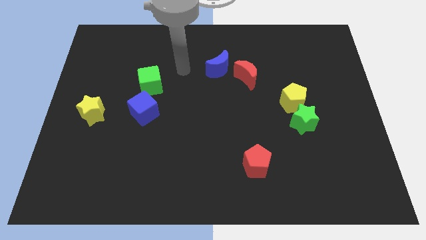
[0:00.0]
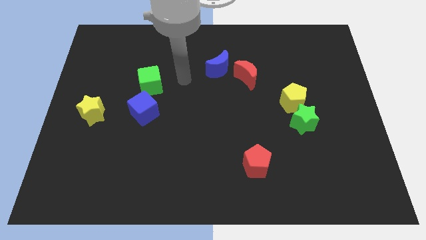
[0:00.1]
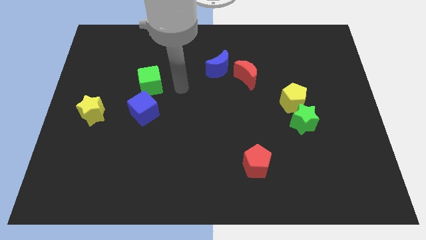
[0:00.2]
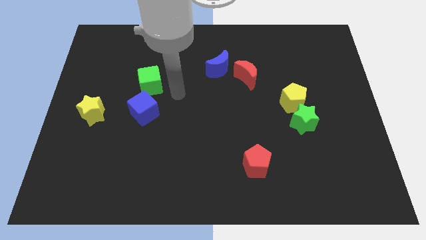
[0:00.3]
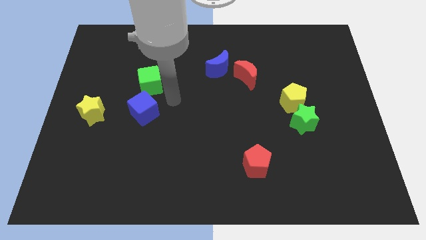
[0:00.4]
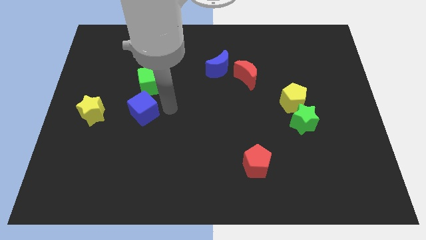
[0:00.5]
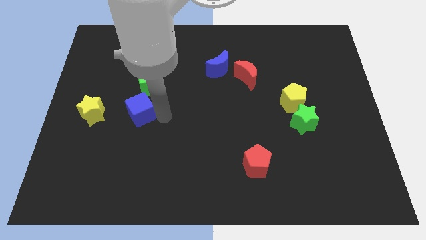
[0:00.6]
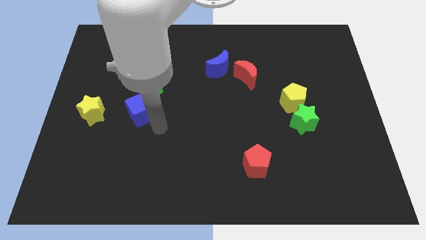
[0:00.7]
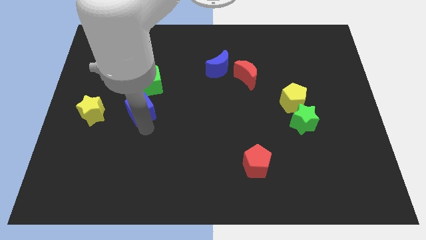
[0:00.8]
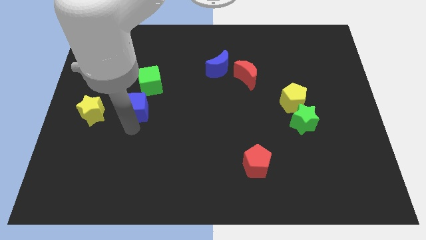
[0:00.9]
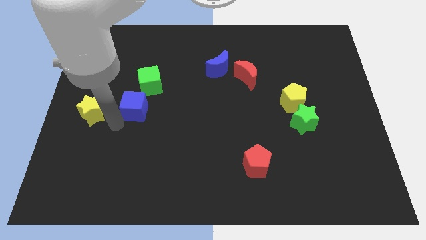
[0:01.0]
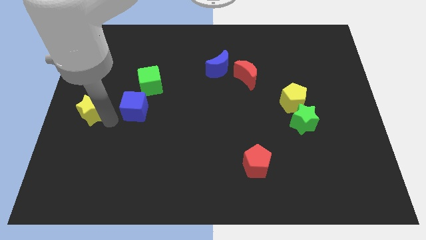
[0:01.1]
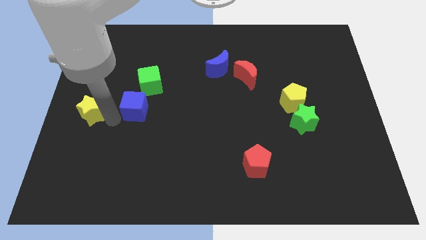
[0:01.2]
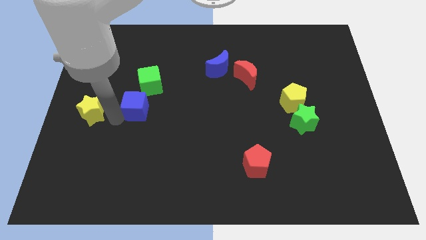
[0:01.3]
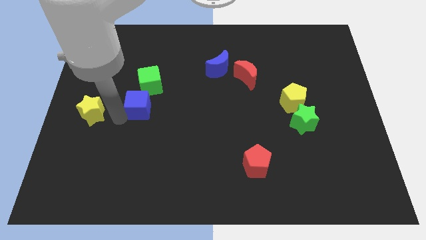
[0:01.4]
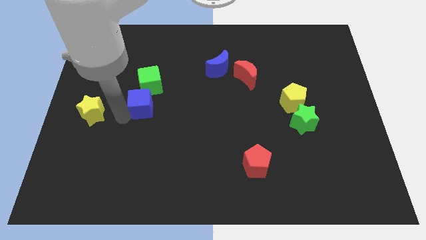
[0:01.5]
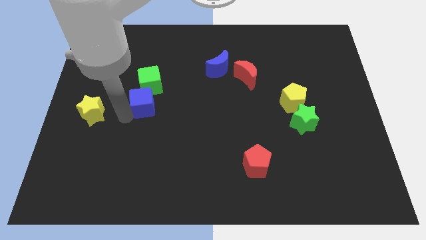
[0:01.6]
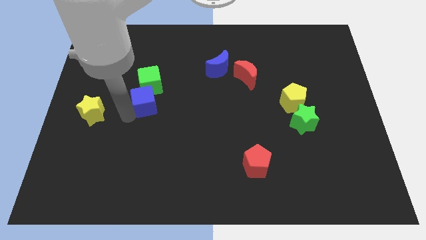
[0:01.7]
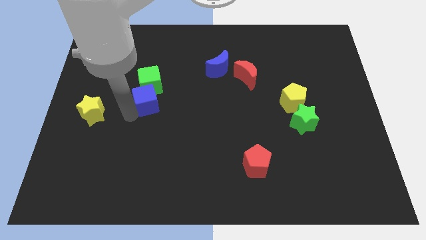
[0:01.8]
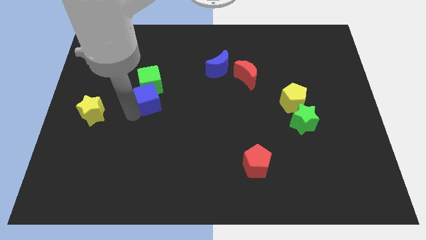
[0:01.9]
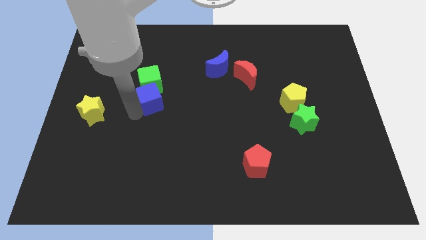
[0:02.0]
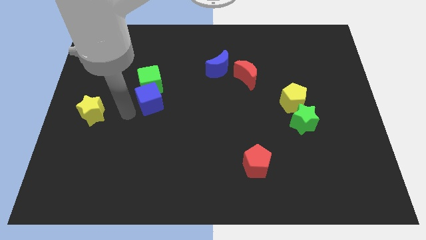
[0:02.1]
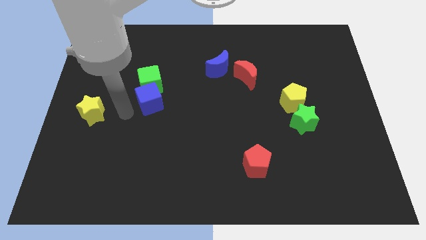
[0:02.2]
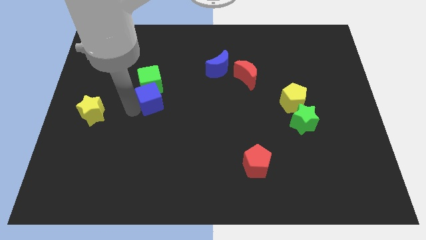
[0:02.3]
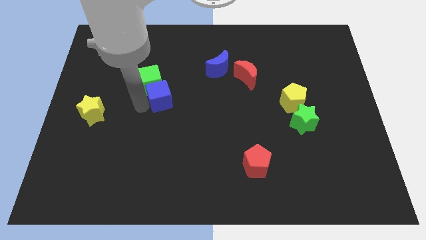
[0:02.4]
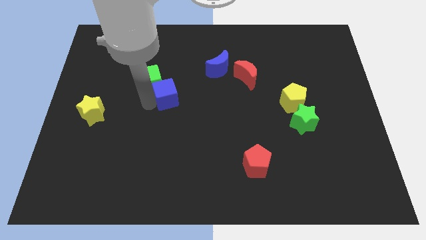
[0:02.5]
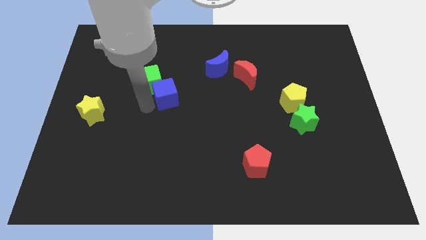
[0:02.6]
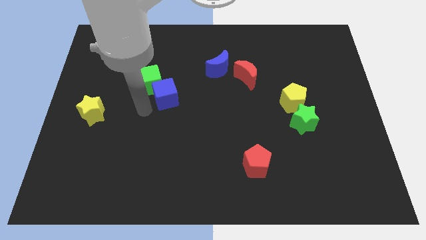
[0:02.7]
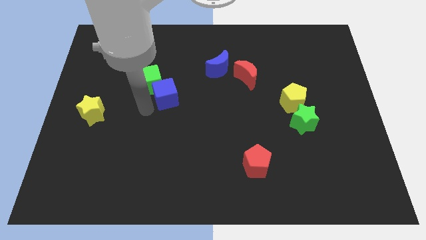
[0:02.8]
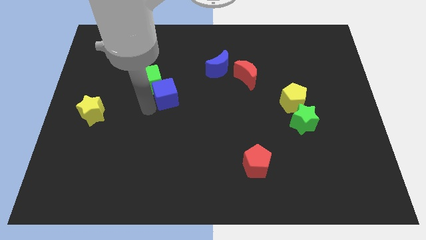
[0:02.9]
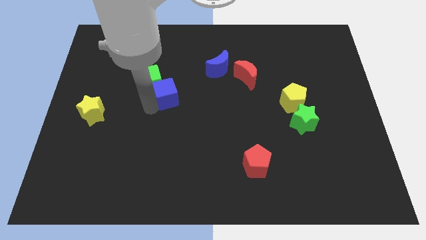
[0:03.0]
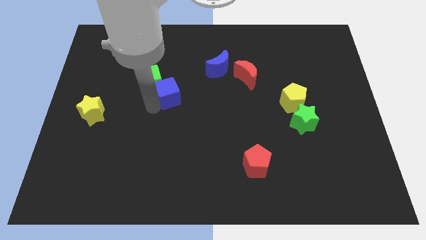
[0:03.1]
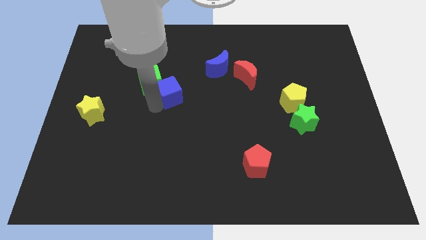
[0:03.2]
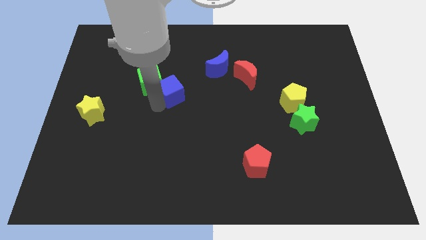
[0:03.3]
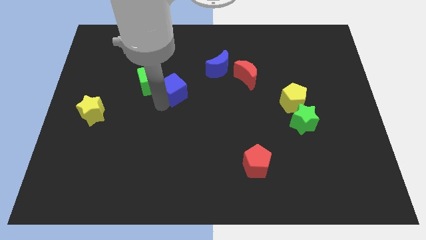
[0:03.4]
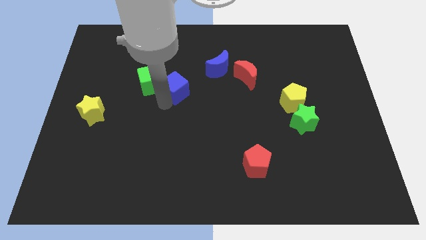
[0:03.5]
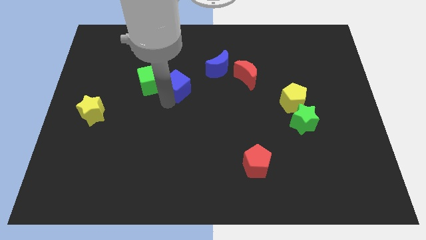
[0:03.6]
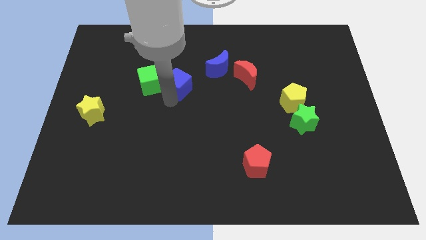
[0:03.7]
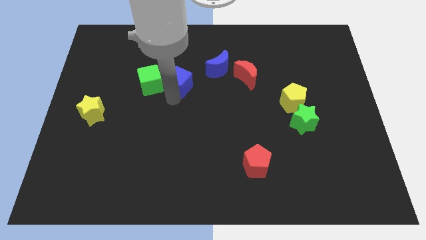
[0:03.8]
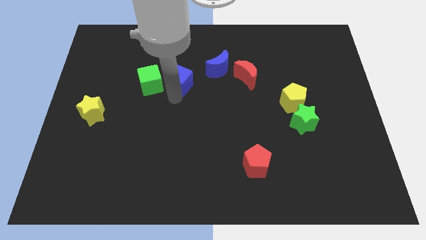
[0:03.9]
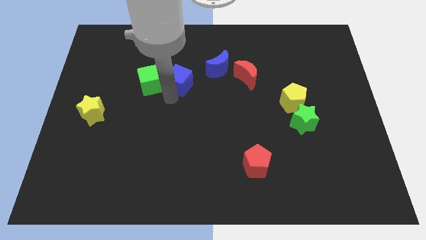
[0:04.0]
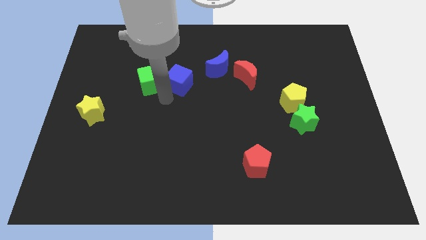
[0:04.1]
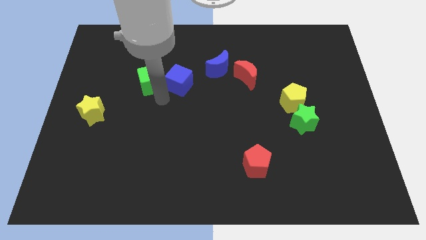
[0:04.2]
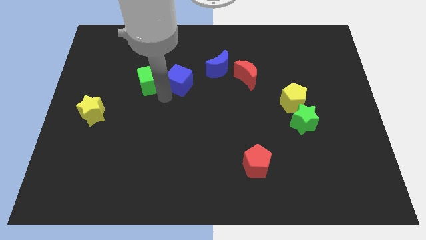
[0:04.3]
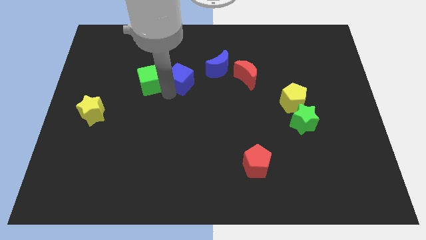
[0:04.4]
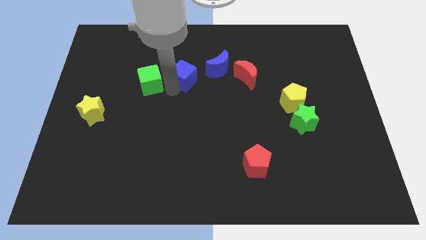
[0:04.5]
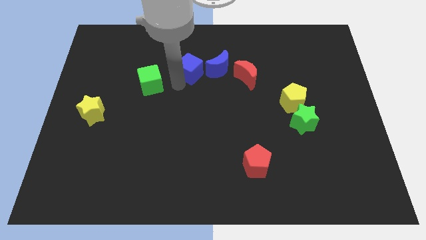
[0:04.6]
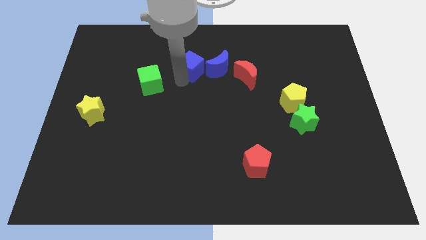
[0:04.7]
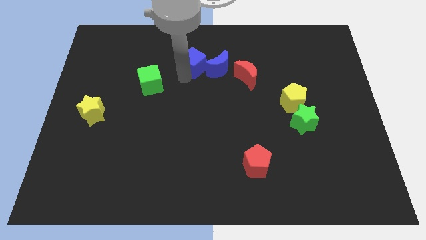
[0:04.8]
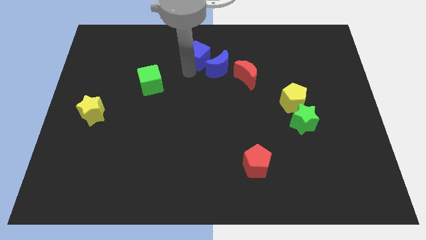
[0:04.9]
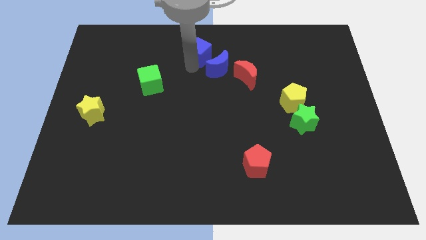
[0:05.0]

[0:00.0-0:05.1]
move the blue cube to the towards your base

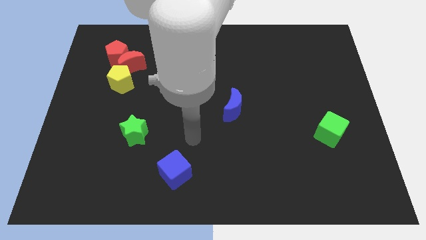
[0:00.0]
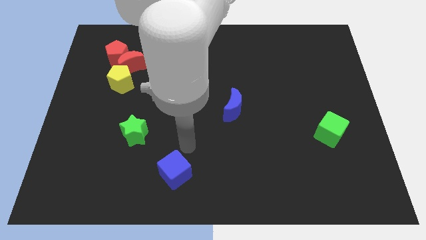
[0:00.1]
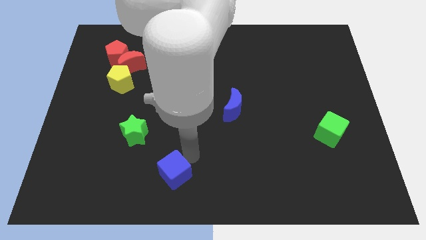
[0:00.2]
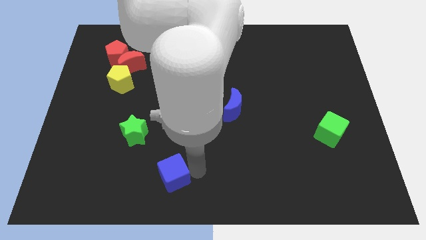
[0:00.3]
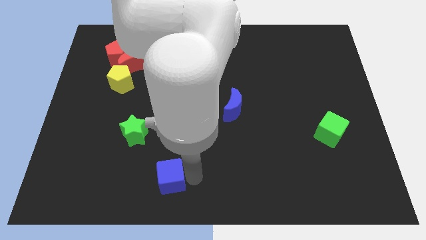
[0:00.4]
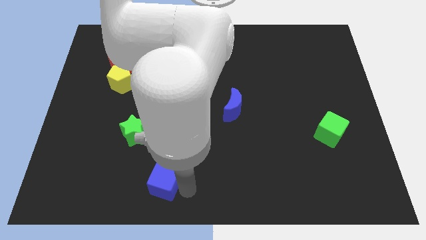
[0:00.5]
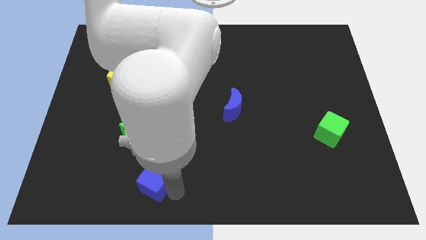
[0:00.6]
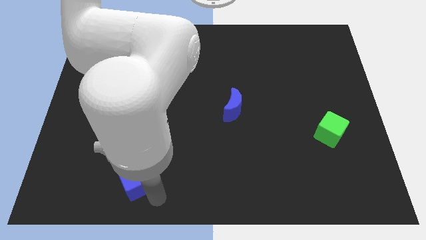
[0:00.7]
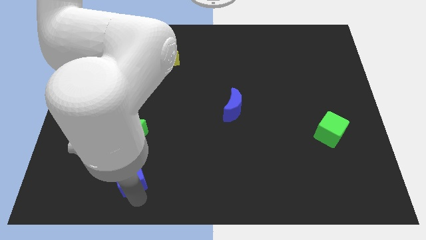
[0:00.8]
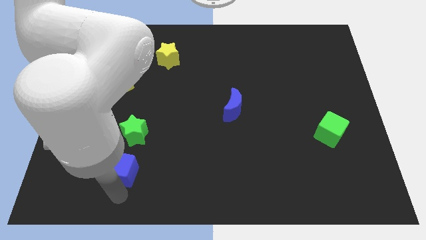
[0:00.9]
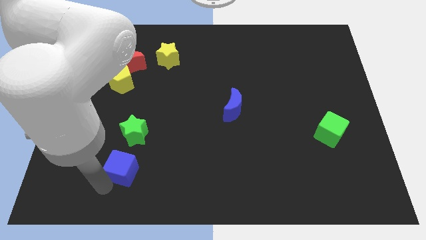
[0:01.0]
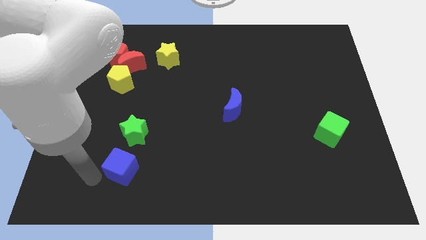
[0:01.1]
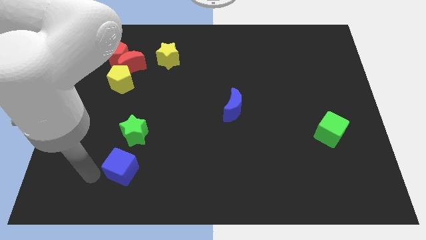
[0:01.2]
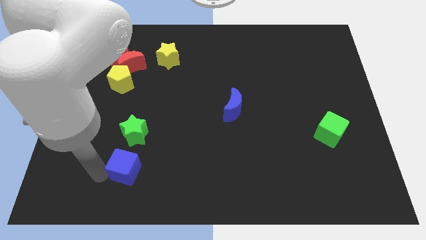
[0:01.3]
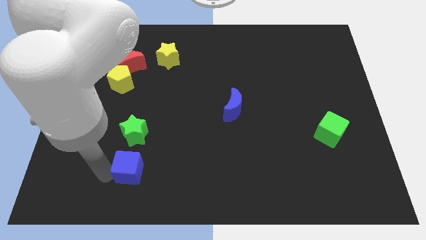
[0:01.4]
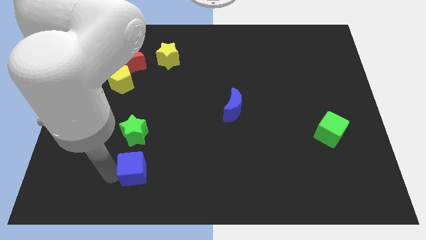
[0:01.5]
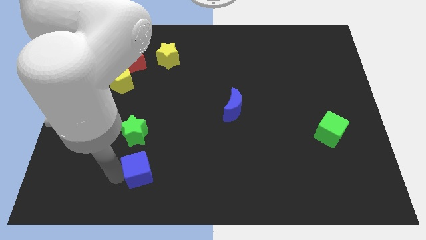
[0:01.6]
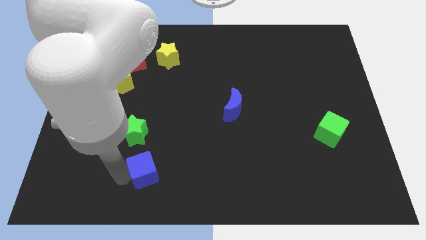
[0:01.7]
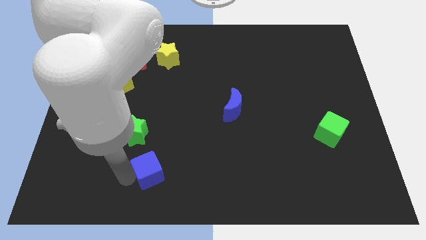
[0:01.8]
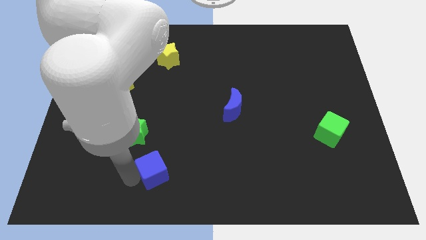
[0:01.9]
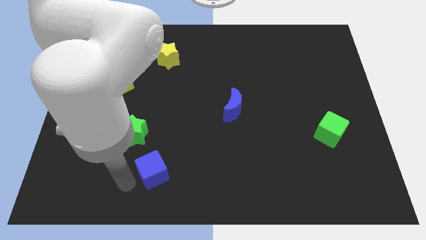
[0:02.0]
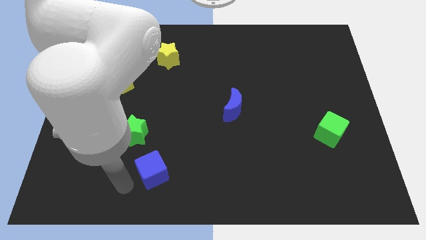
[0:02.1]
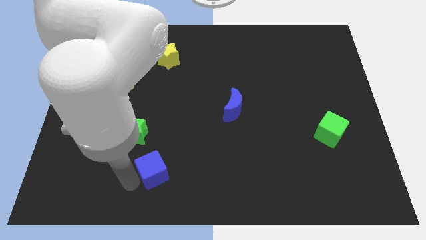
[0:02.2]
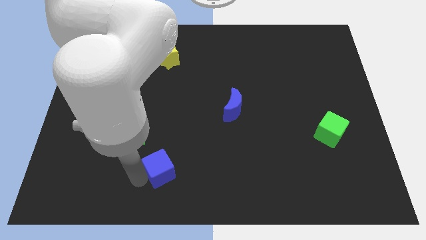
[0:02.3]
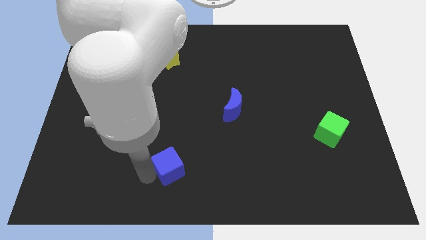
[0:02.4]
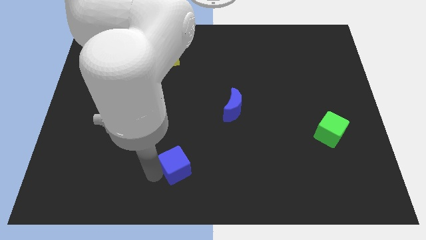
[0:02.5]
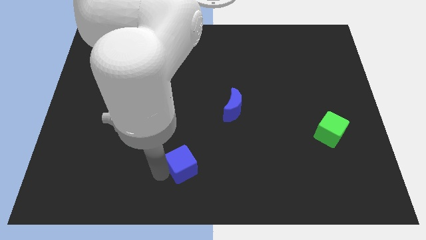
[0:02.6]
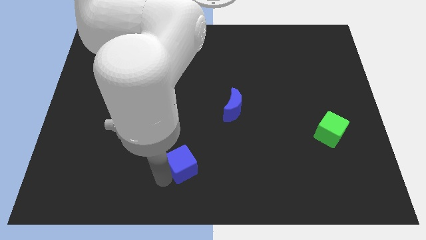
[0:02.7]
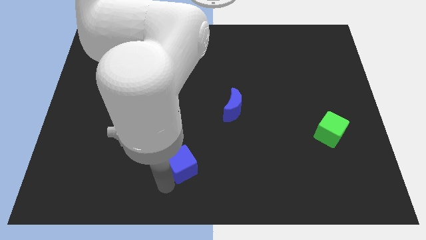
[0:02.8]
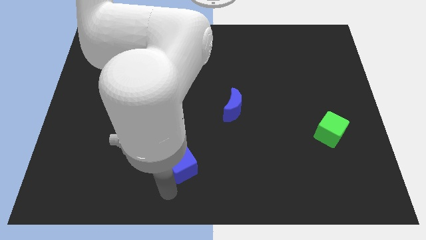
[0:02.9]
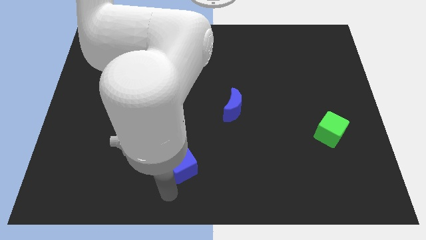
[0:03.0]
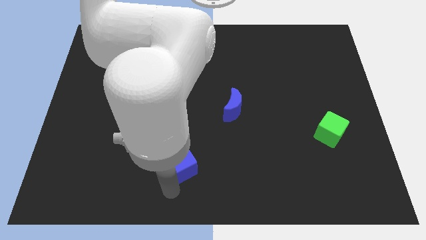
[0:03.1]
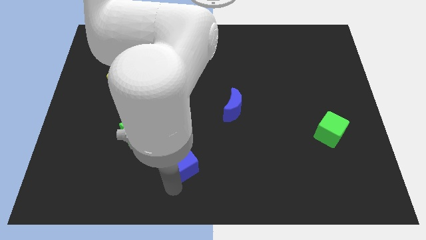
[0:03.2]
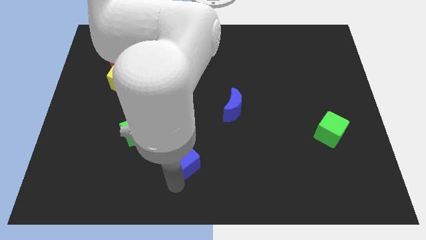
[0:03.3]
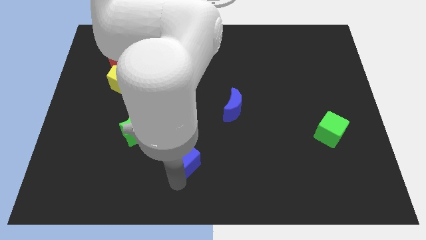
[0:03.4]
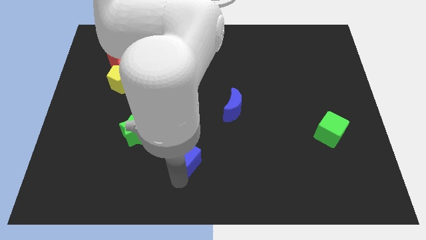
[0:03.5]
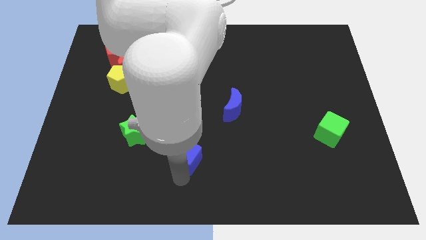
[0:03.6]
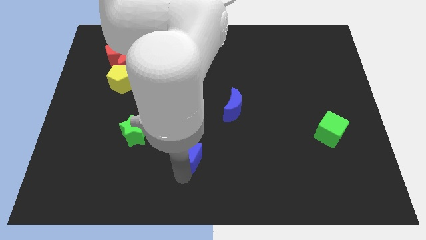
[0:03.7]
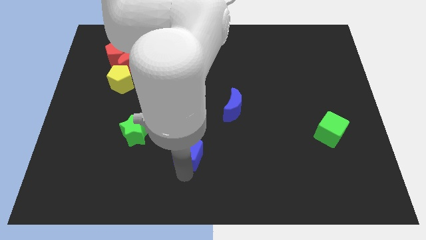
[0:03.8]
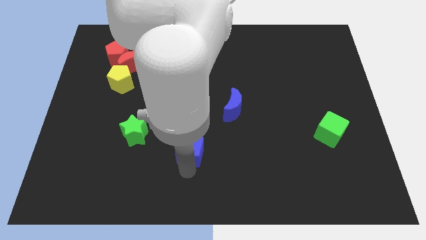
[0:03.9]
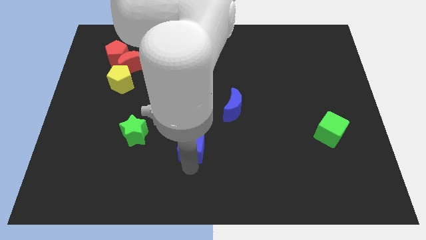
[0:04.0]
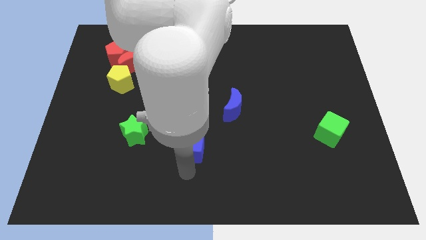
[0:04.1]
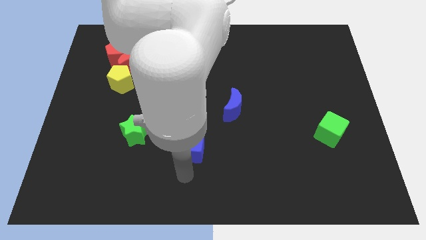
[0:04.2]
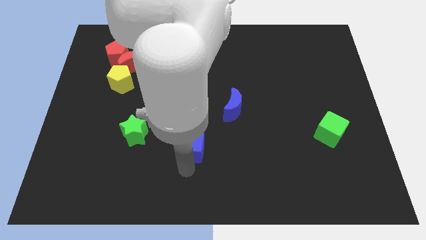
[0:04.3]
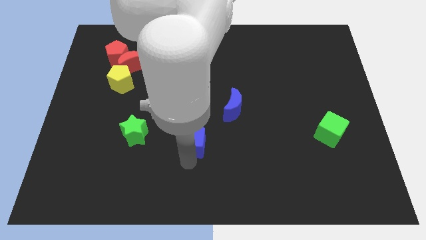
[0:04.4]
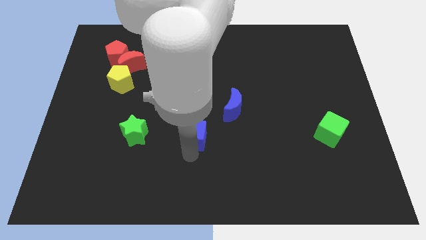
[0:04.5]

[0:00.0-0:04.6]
slide the blue cube to the middle
